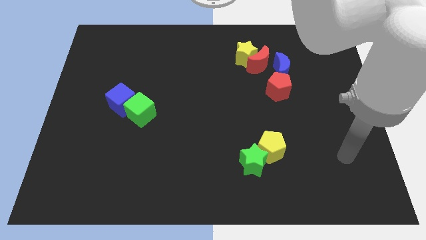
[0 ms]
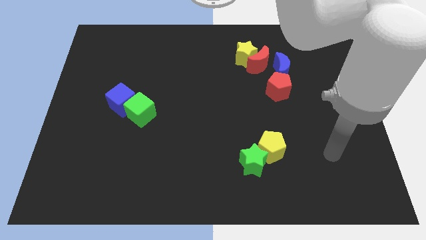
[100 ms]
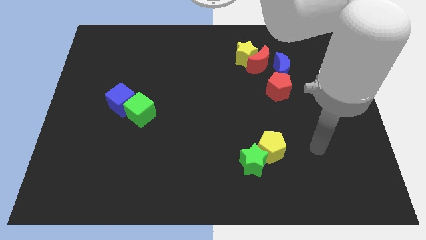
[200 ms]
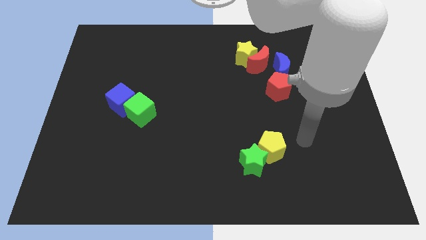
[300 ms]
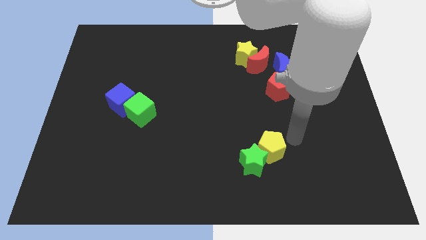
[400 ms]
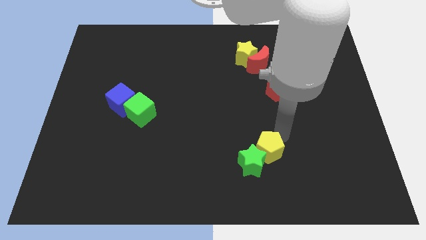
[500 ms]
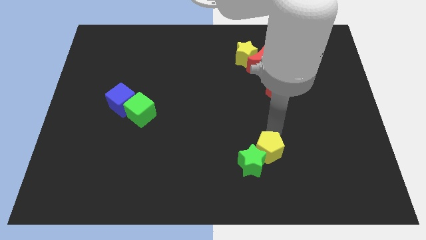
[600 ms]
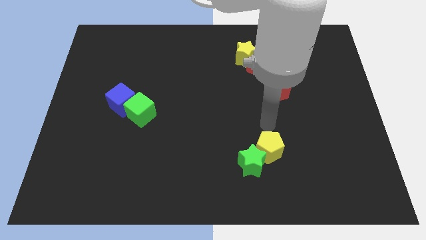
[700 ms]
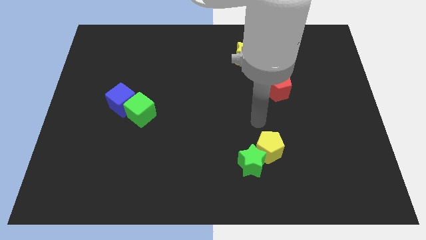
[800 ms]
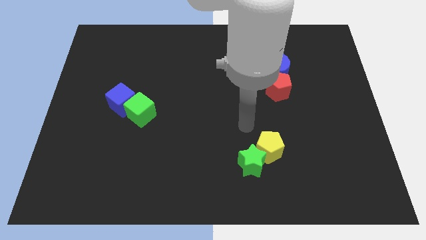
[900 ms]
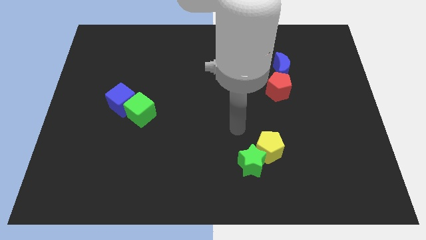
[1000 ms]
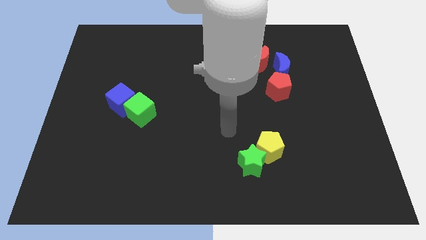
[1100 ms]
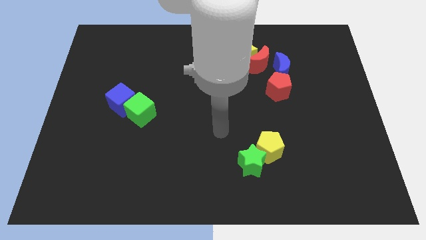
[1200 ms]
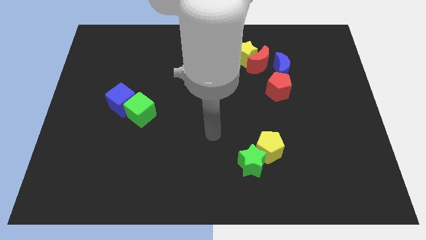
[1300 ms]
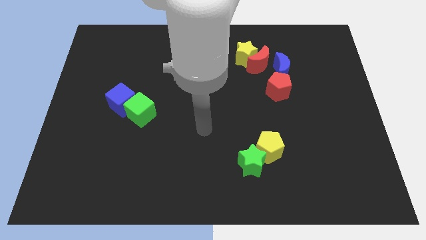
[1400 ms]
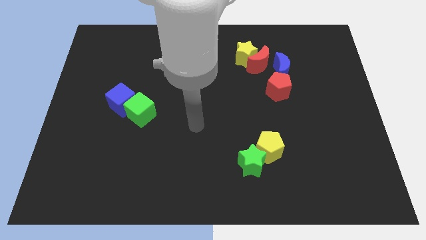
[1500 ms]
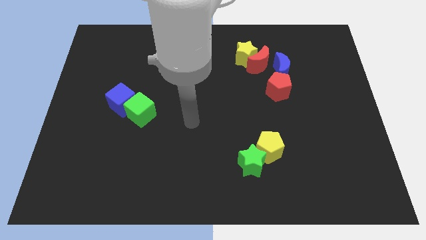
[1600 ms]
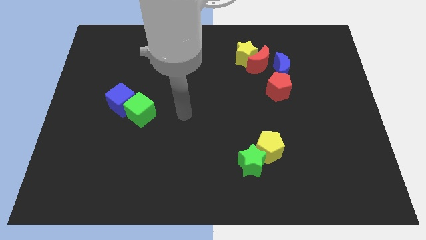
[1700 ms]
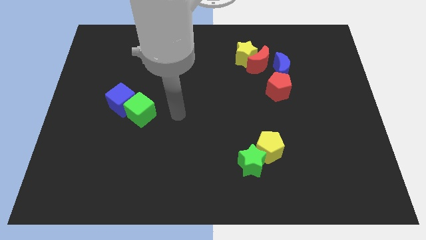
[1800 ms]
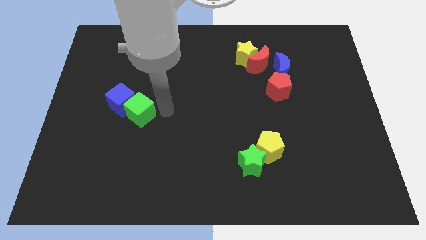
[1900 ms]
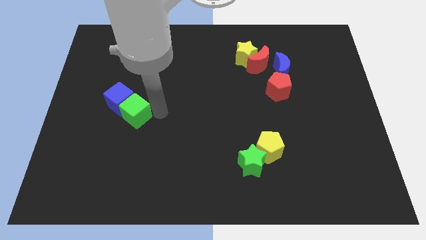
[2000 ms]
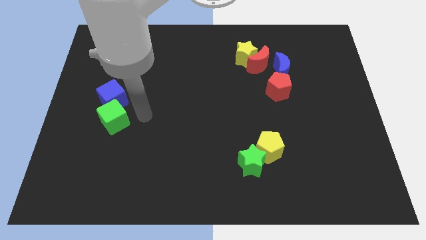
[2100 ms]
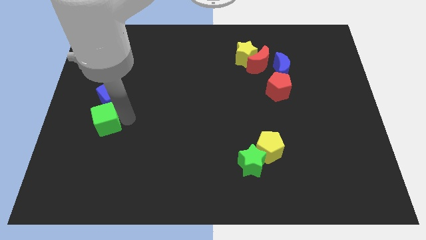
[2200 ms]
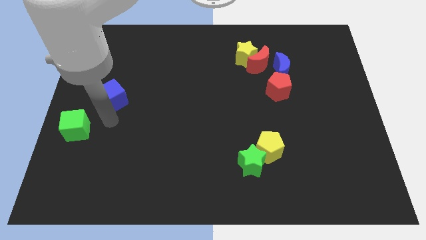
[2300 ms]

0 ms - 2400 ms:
separate the blue cube from the green cube

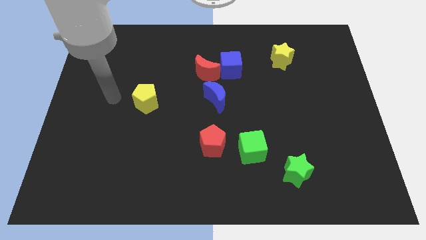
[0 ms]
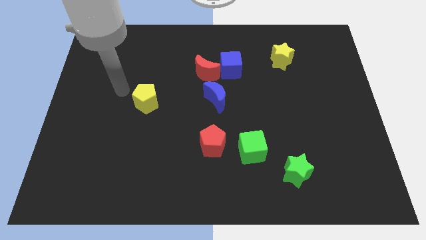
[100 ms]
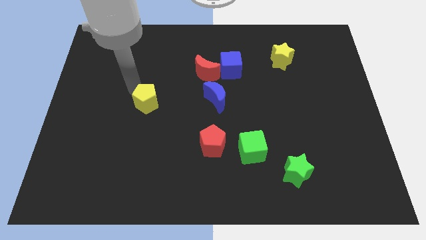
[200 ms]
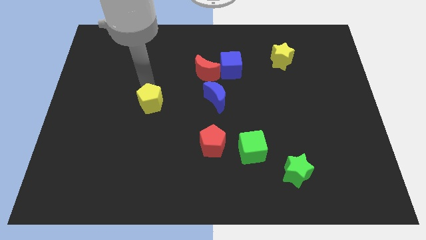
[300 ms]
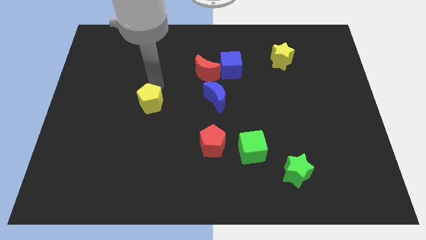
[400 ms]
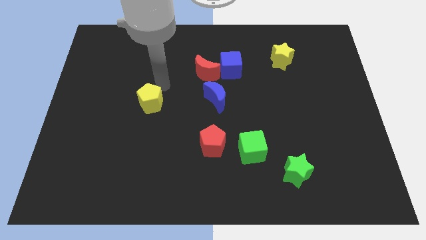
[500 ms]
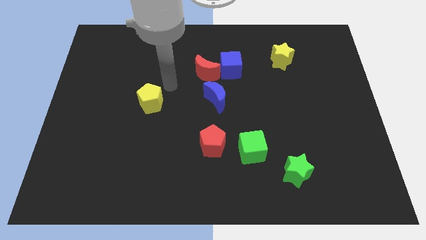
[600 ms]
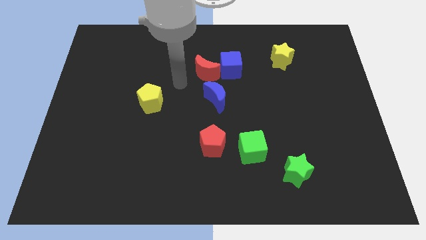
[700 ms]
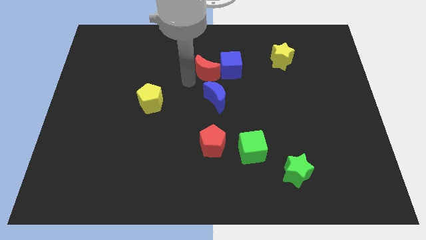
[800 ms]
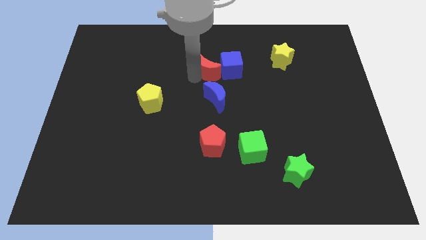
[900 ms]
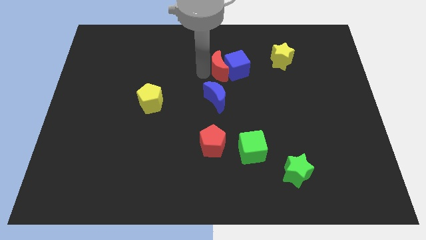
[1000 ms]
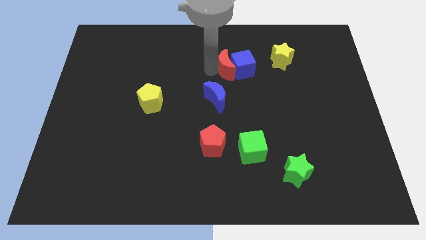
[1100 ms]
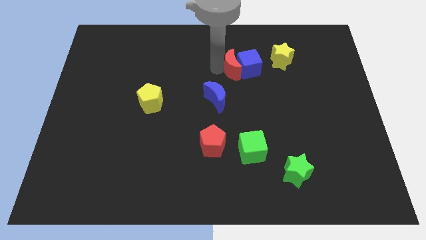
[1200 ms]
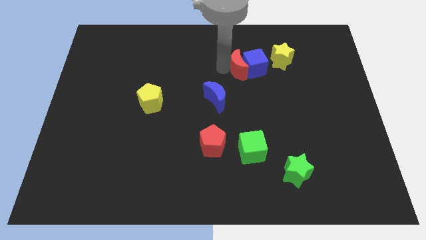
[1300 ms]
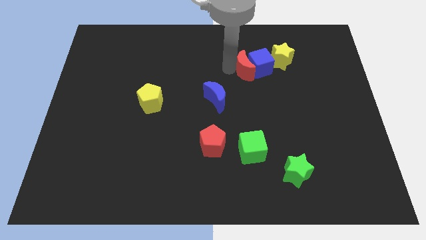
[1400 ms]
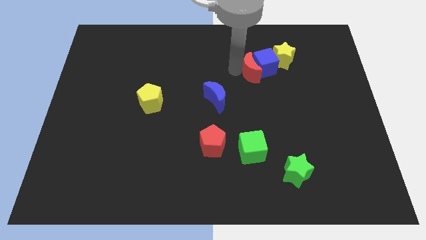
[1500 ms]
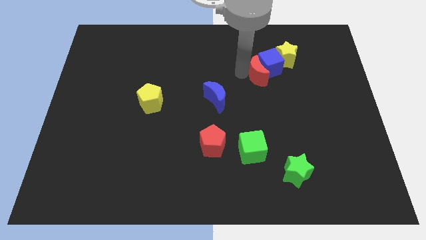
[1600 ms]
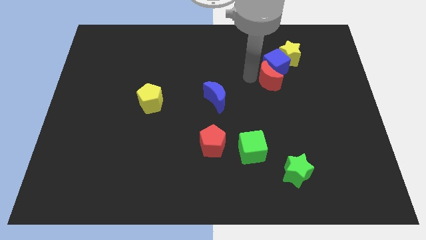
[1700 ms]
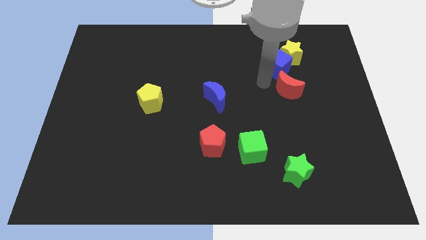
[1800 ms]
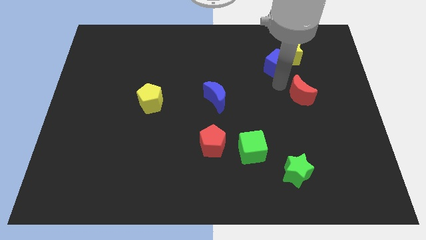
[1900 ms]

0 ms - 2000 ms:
separate the blue cube from the red moon

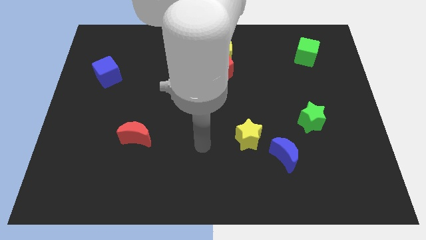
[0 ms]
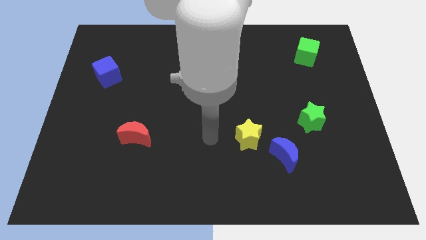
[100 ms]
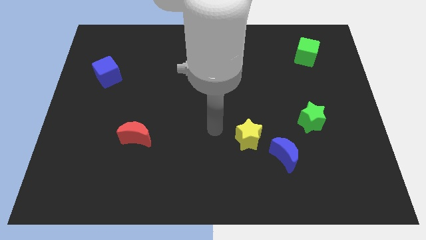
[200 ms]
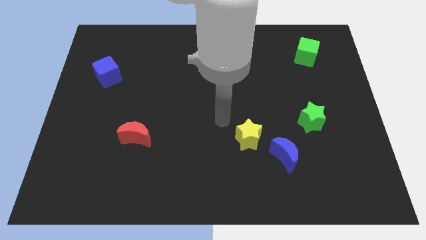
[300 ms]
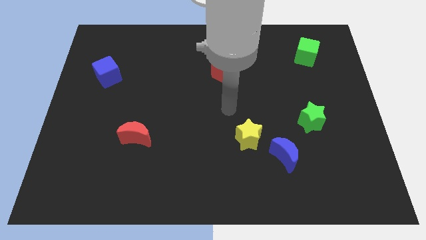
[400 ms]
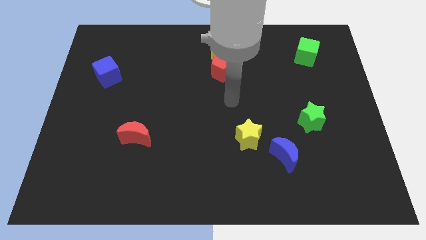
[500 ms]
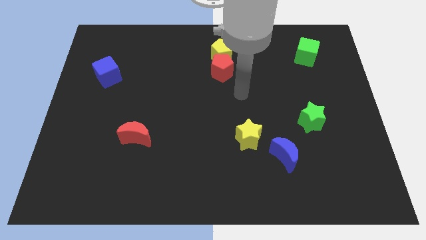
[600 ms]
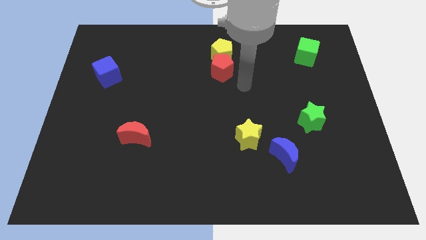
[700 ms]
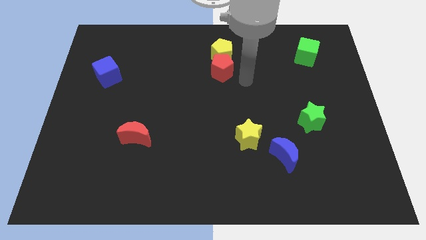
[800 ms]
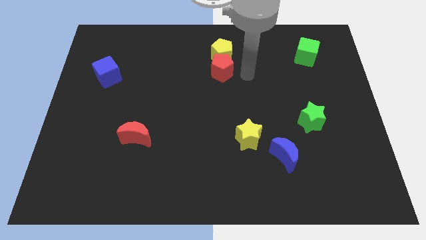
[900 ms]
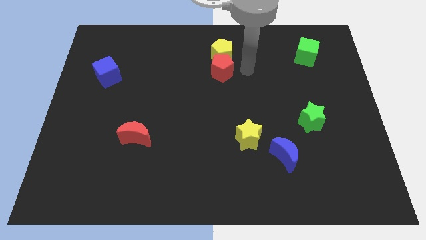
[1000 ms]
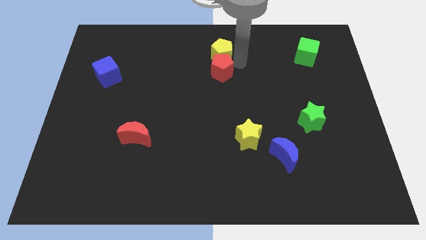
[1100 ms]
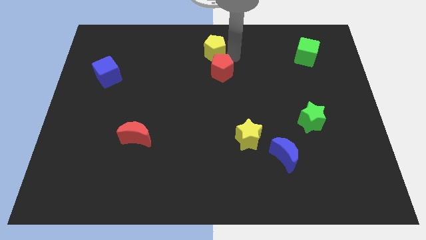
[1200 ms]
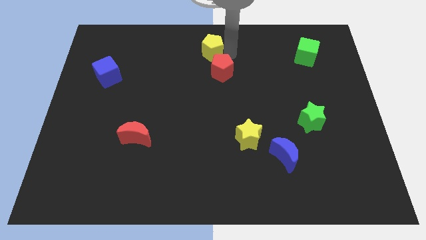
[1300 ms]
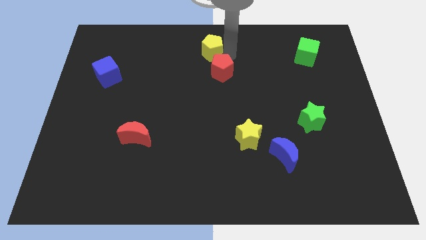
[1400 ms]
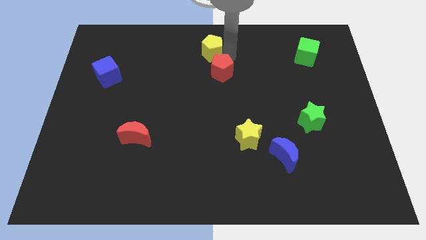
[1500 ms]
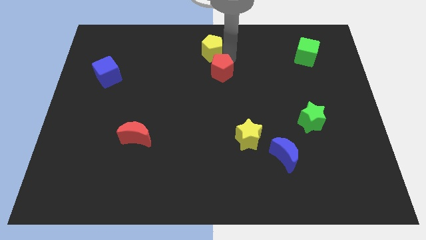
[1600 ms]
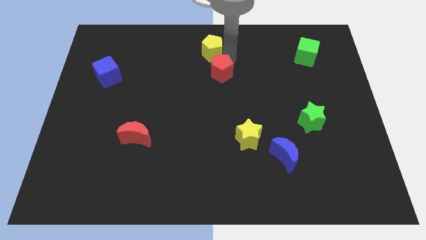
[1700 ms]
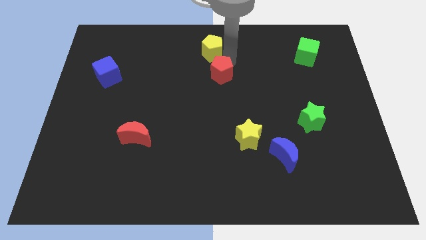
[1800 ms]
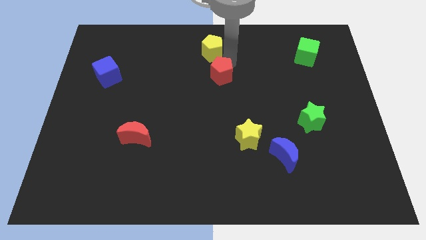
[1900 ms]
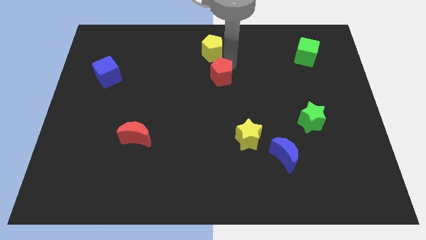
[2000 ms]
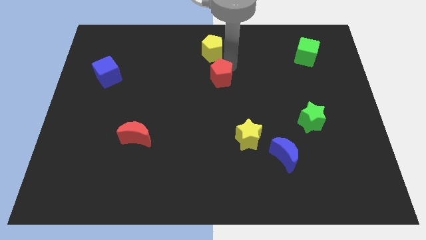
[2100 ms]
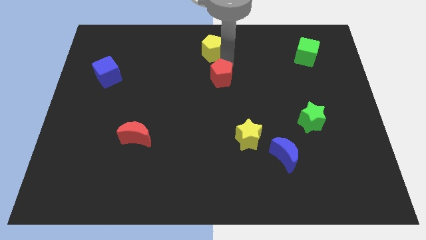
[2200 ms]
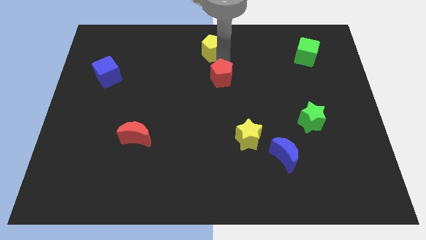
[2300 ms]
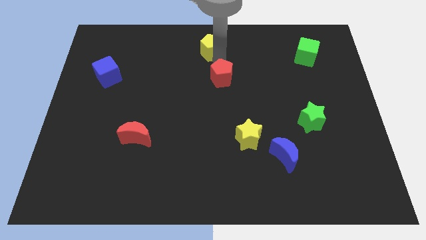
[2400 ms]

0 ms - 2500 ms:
move the red pentagon away from the yellow pentagon

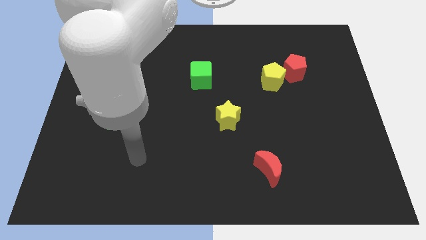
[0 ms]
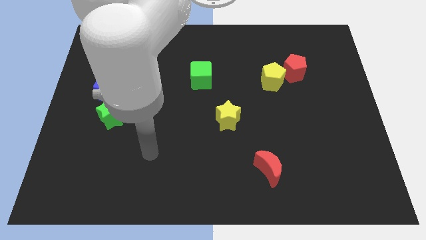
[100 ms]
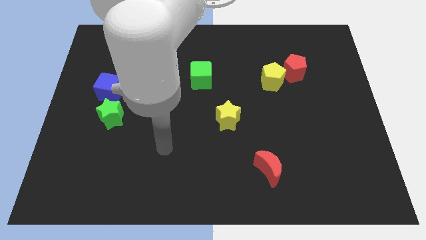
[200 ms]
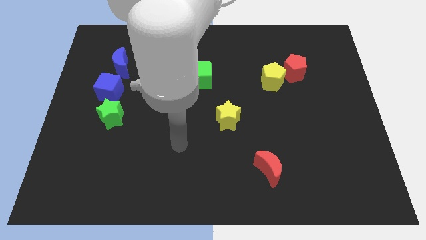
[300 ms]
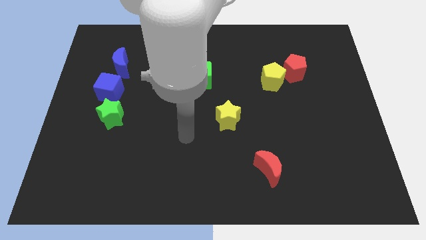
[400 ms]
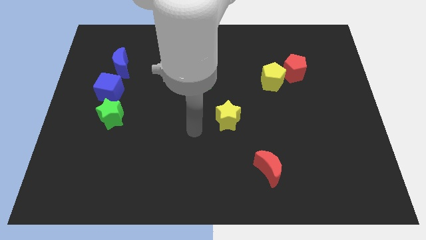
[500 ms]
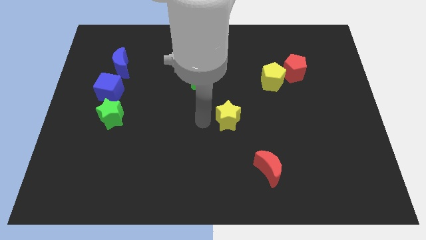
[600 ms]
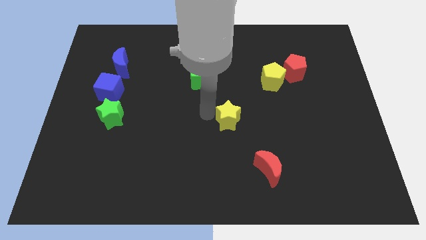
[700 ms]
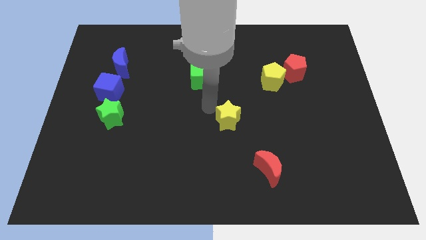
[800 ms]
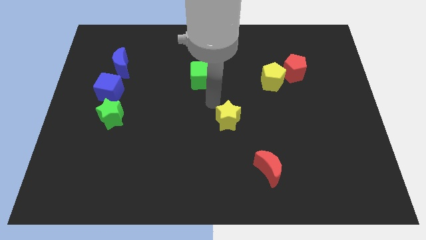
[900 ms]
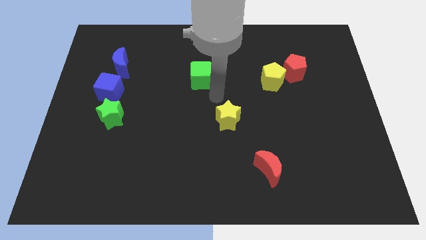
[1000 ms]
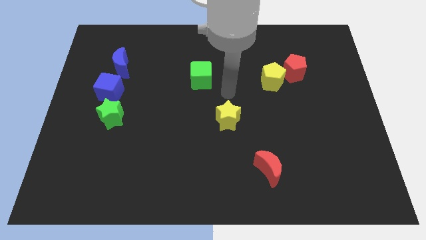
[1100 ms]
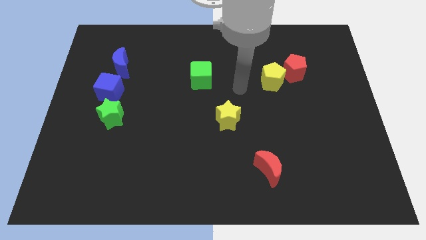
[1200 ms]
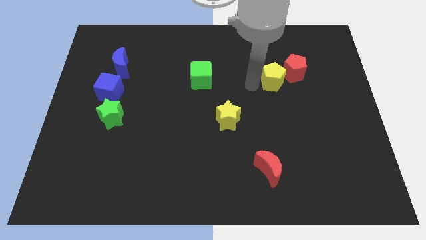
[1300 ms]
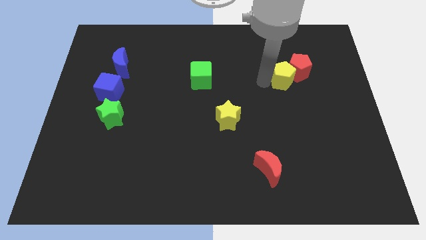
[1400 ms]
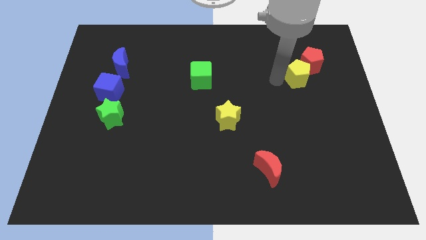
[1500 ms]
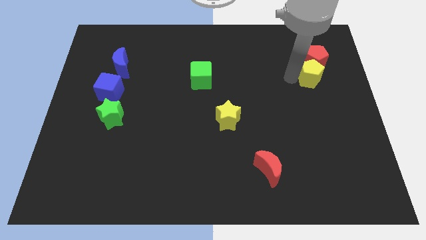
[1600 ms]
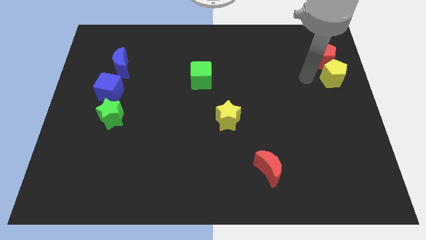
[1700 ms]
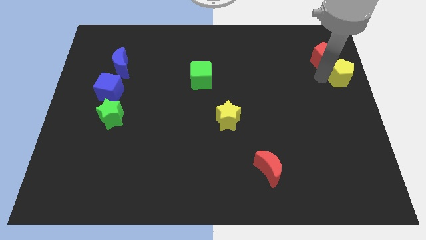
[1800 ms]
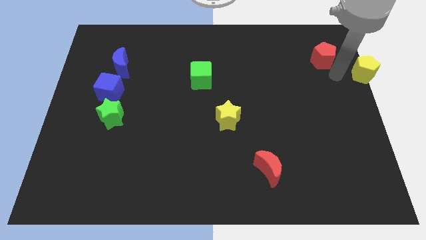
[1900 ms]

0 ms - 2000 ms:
pull the red pentagon apart from the yellow pentagon

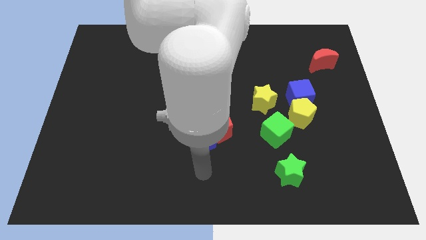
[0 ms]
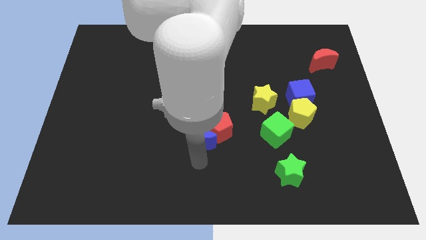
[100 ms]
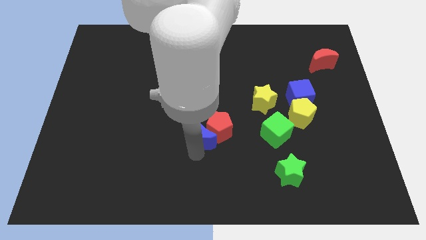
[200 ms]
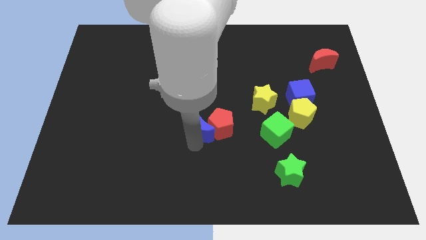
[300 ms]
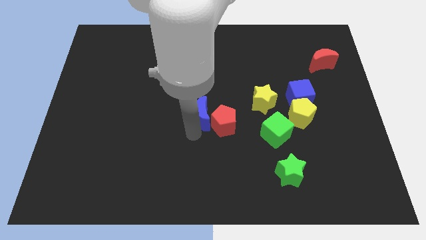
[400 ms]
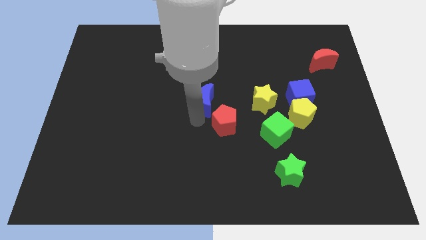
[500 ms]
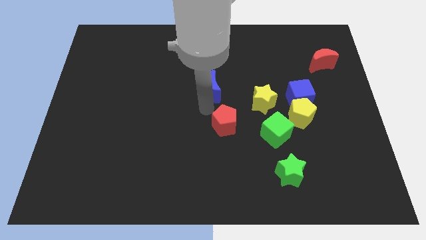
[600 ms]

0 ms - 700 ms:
pull the red pentagon apart from the blue moon
